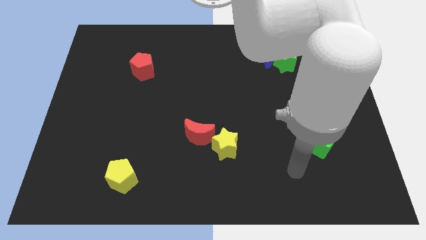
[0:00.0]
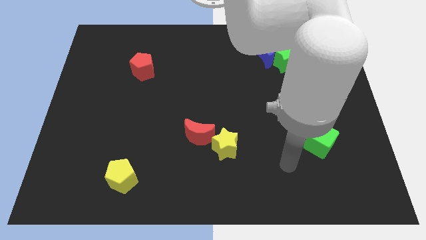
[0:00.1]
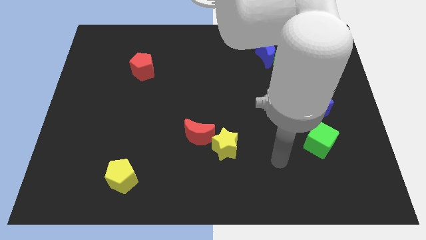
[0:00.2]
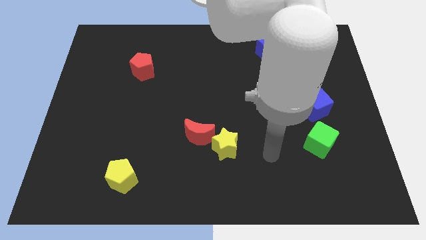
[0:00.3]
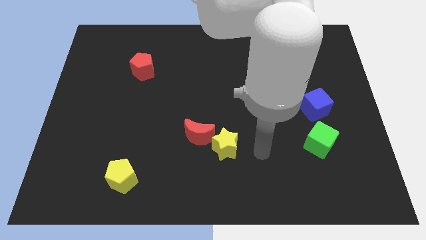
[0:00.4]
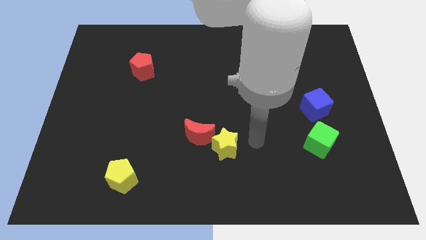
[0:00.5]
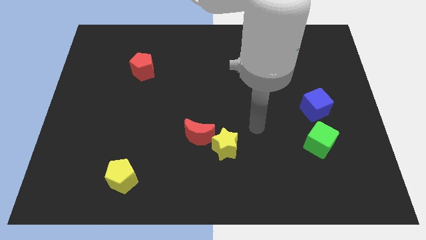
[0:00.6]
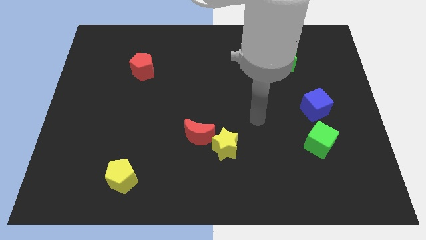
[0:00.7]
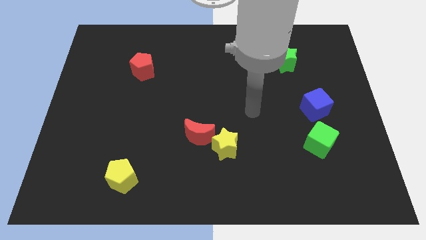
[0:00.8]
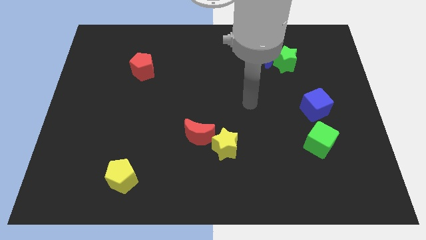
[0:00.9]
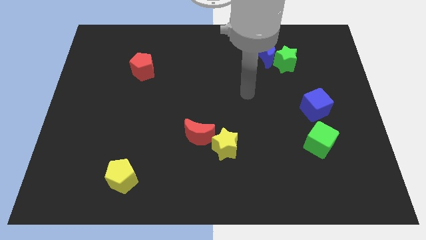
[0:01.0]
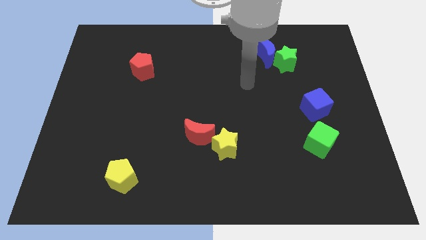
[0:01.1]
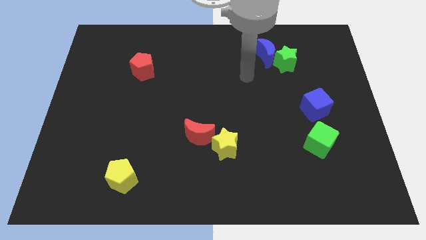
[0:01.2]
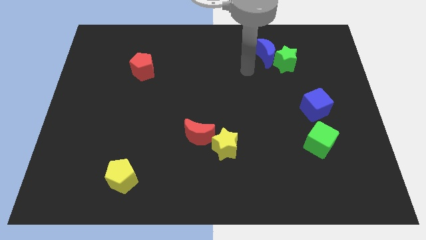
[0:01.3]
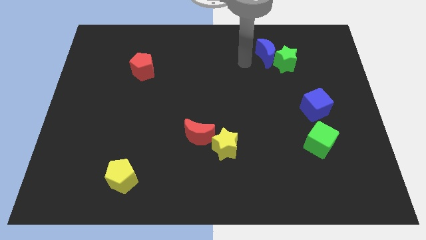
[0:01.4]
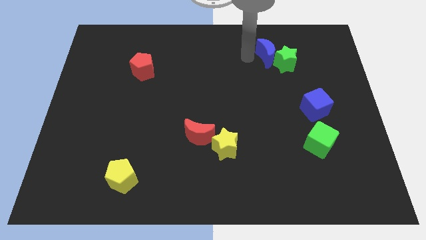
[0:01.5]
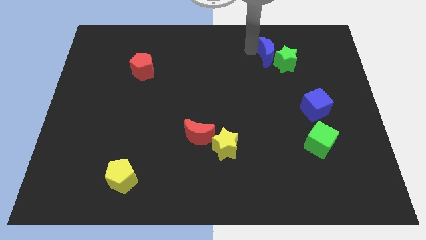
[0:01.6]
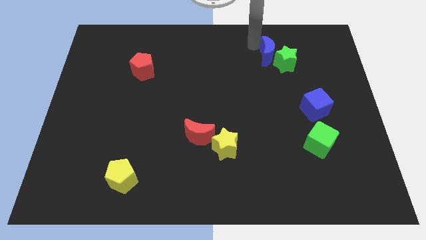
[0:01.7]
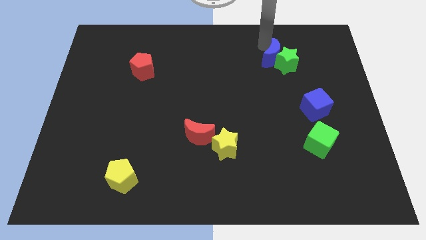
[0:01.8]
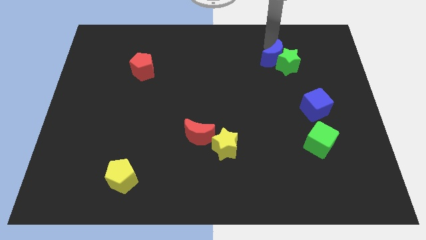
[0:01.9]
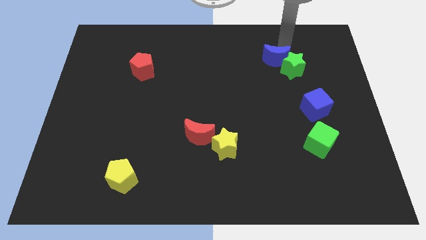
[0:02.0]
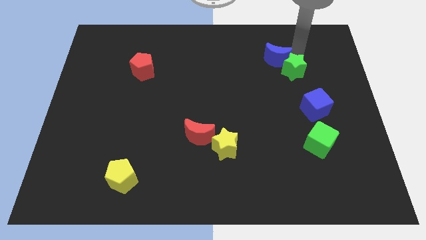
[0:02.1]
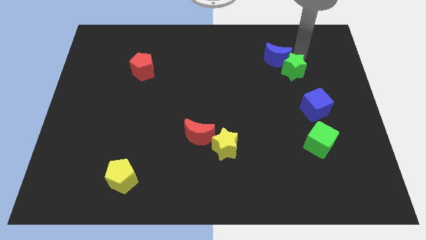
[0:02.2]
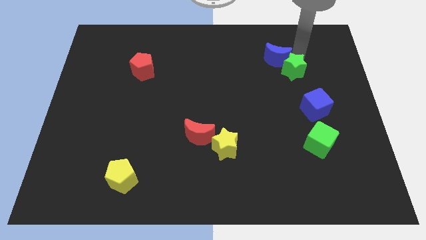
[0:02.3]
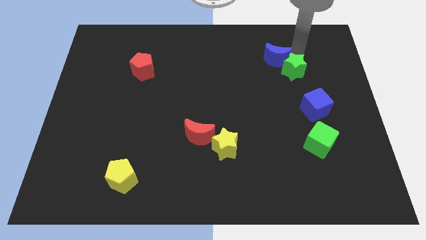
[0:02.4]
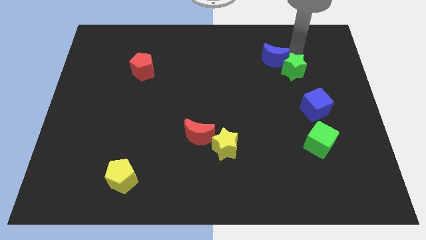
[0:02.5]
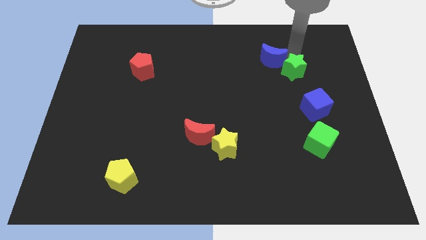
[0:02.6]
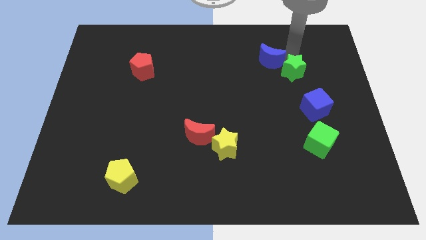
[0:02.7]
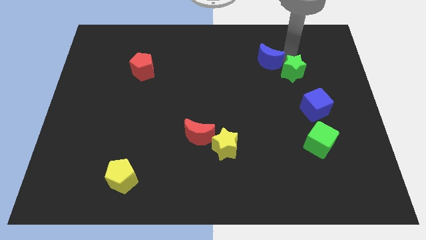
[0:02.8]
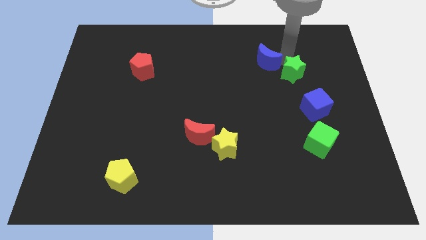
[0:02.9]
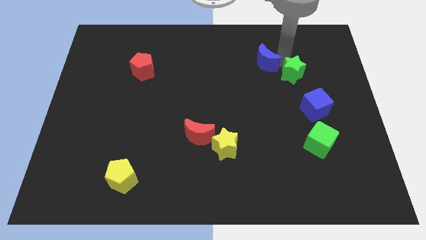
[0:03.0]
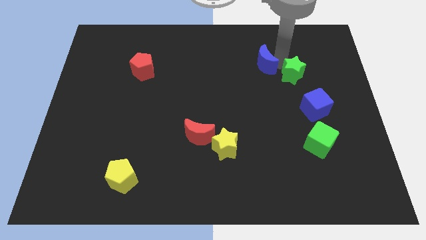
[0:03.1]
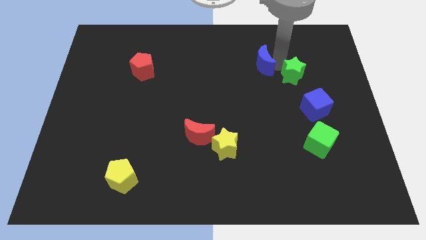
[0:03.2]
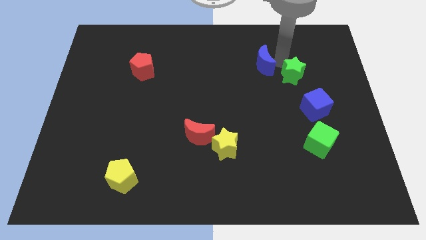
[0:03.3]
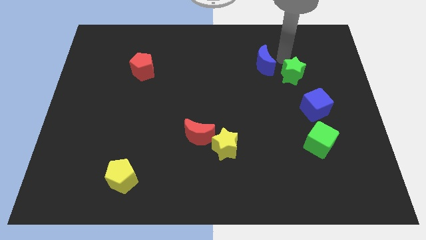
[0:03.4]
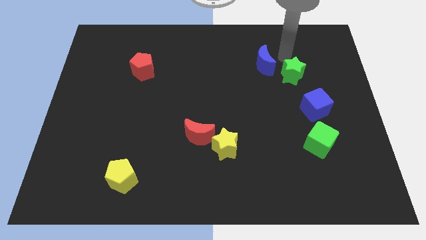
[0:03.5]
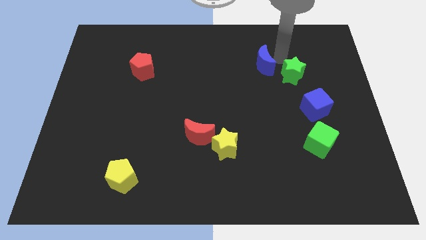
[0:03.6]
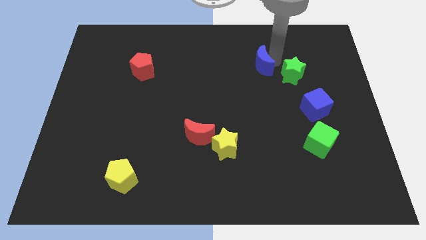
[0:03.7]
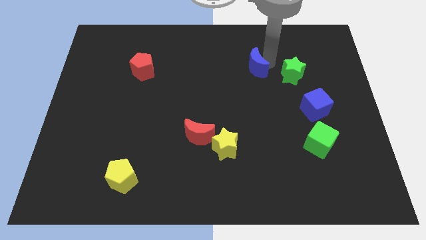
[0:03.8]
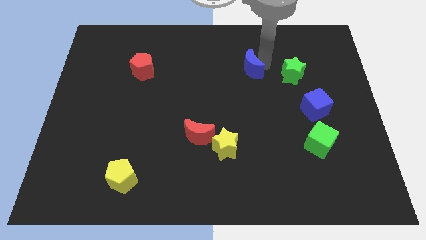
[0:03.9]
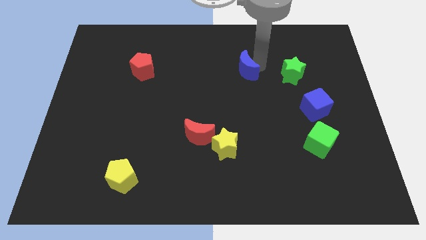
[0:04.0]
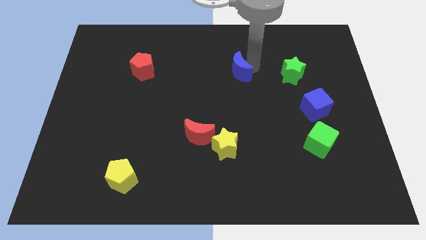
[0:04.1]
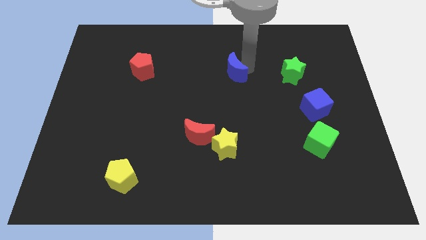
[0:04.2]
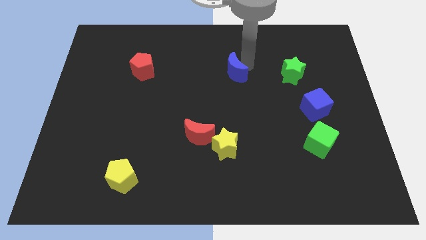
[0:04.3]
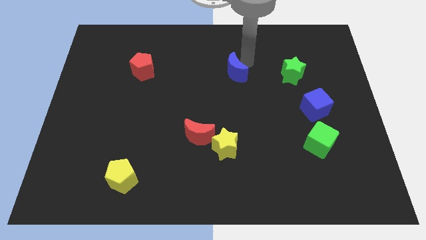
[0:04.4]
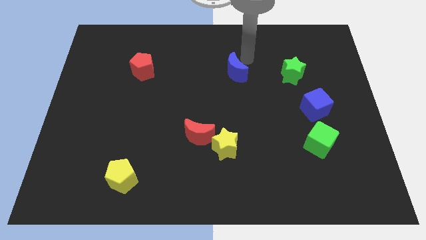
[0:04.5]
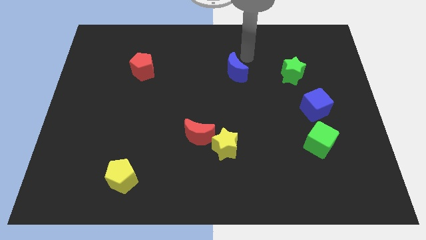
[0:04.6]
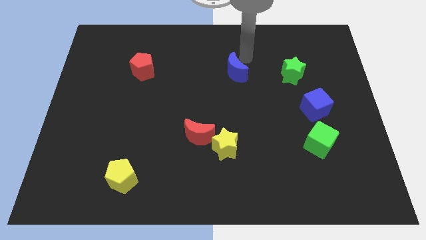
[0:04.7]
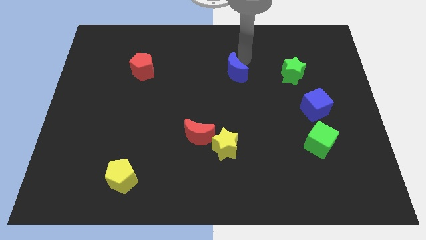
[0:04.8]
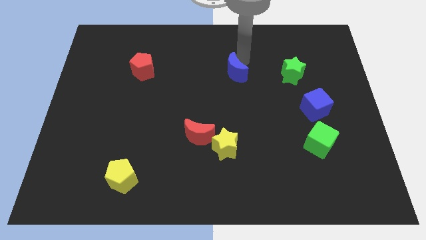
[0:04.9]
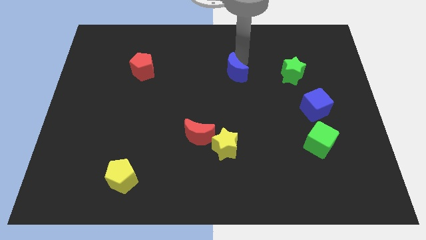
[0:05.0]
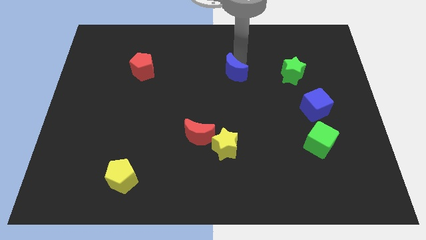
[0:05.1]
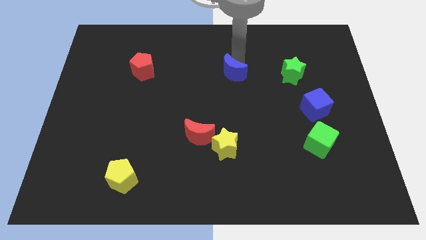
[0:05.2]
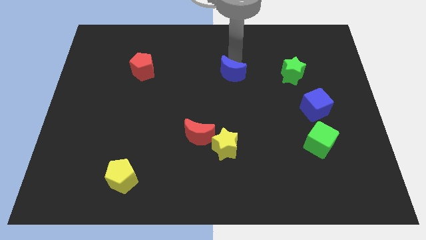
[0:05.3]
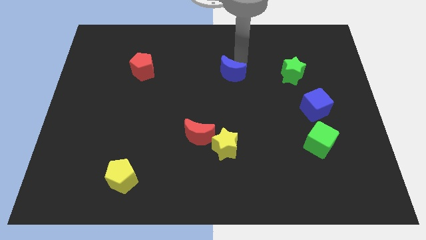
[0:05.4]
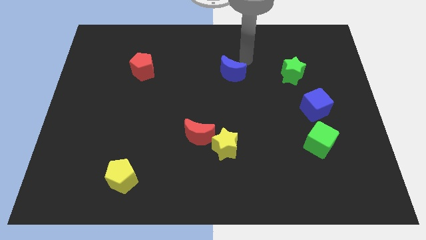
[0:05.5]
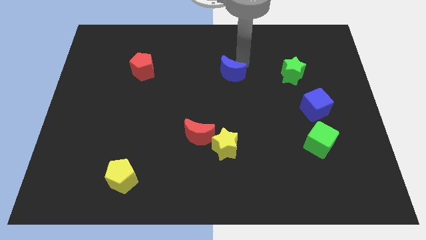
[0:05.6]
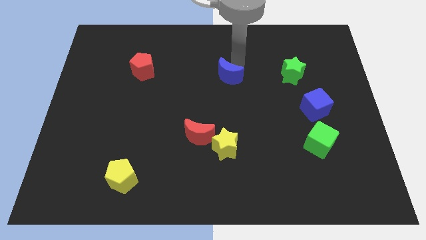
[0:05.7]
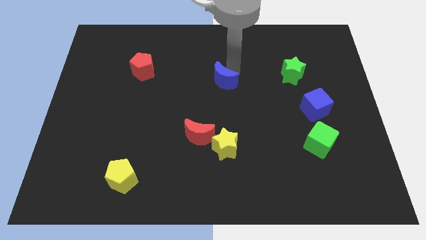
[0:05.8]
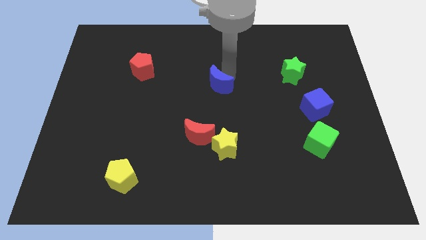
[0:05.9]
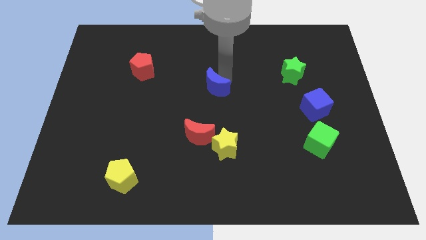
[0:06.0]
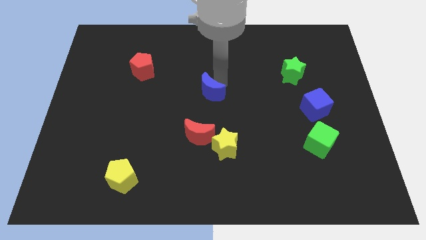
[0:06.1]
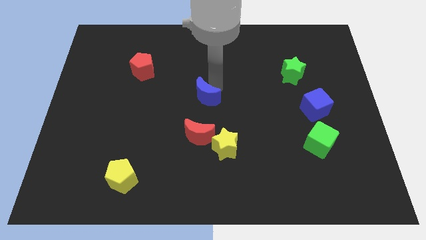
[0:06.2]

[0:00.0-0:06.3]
push the blue moon downwards and then to the left

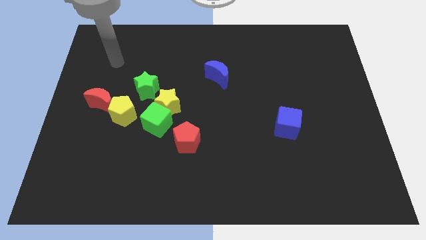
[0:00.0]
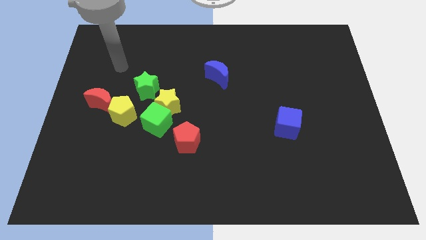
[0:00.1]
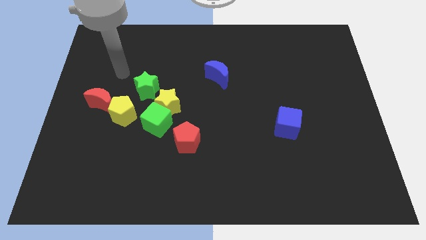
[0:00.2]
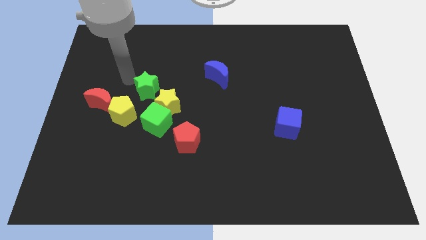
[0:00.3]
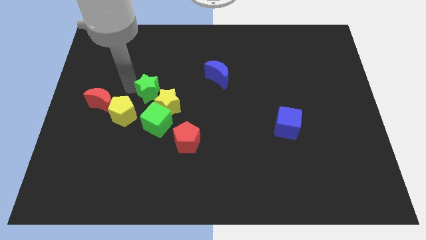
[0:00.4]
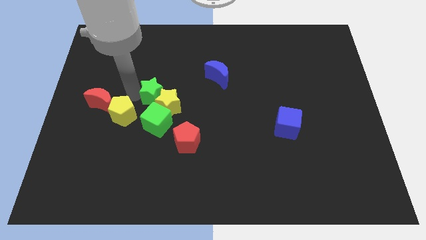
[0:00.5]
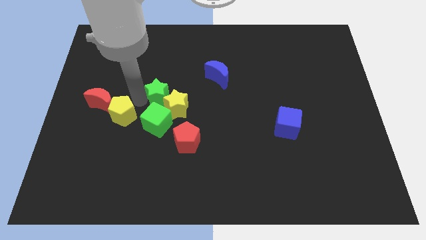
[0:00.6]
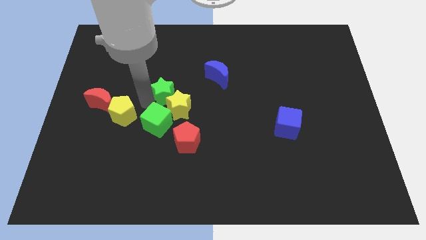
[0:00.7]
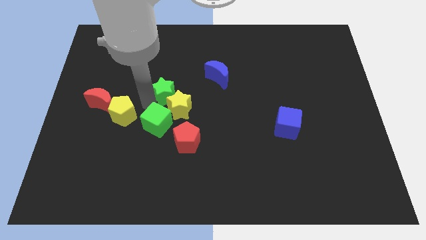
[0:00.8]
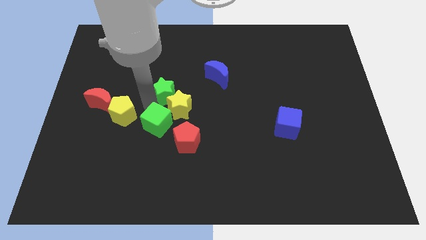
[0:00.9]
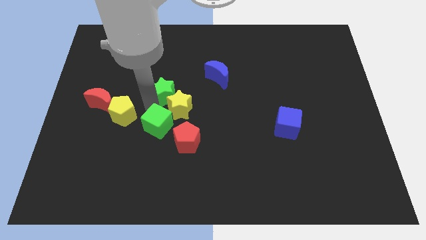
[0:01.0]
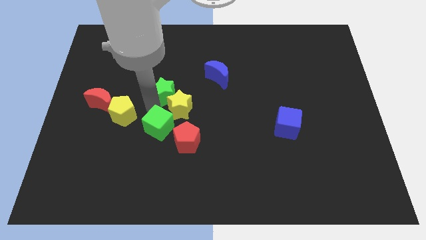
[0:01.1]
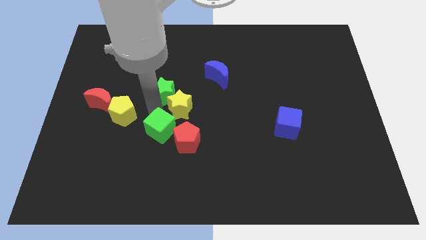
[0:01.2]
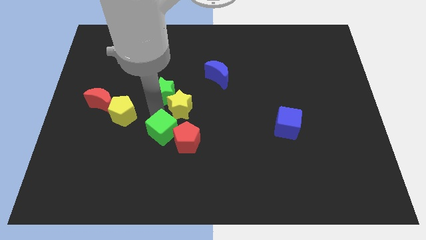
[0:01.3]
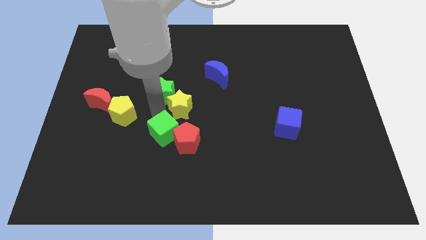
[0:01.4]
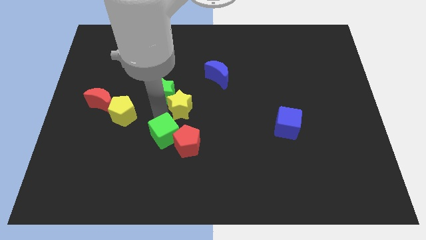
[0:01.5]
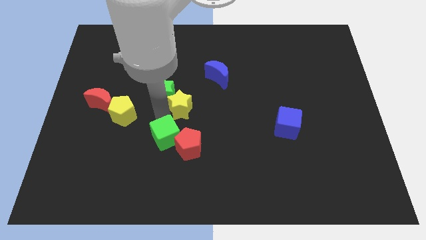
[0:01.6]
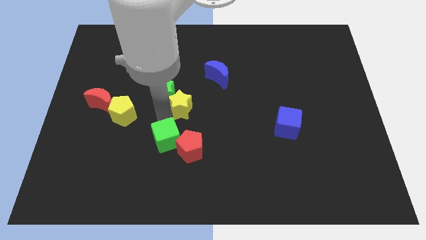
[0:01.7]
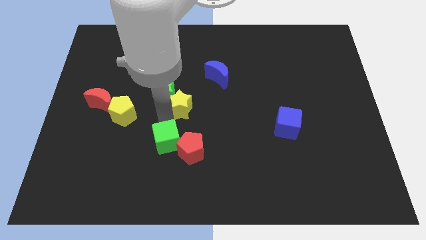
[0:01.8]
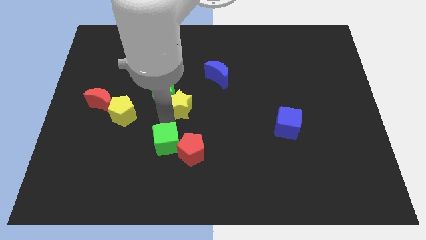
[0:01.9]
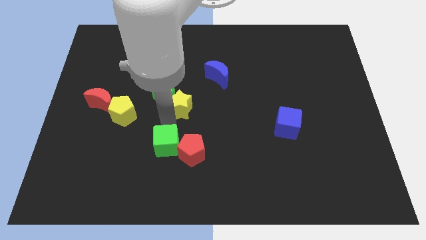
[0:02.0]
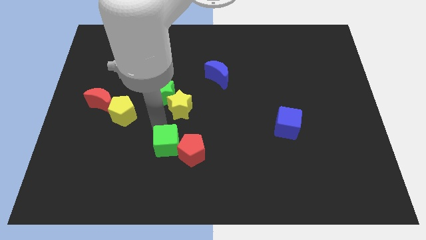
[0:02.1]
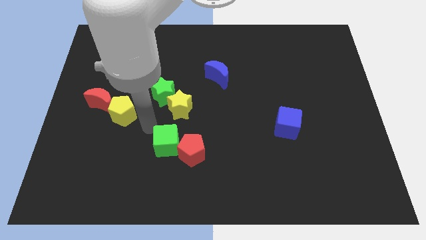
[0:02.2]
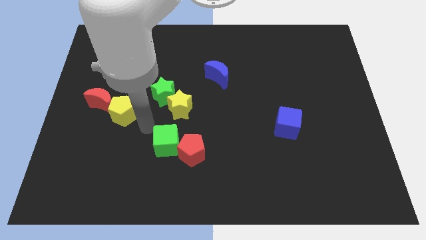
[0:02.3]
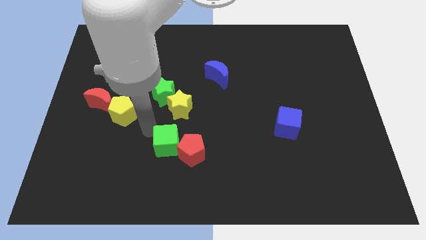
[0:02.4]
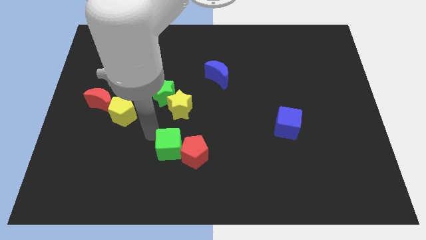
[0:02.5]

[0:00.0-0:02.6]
move the green cube somewhat diagonally downwards and to the right
